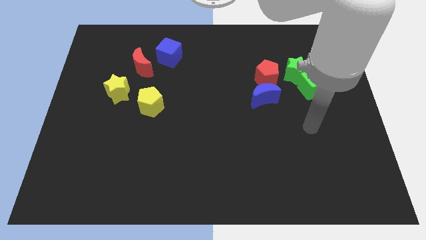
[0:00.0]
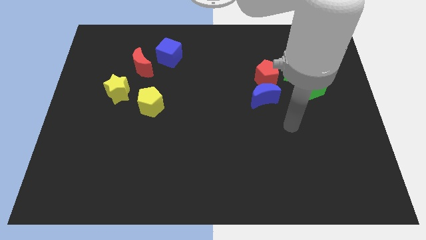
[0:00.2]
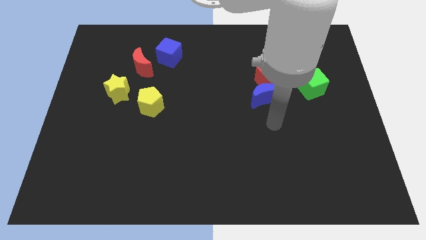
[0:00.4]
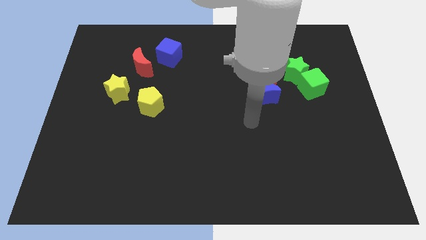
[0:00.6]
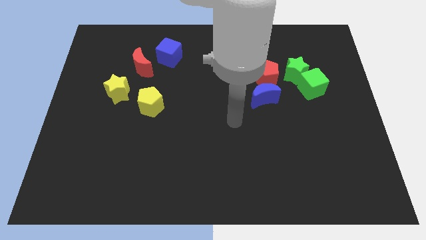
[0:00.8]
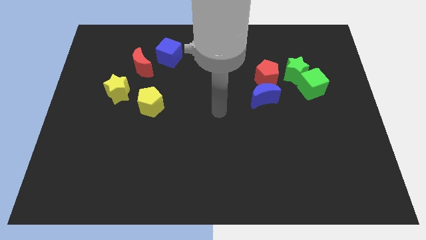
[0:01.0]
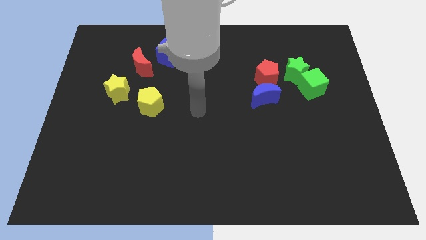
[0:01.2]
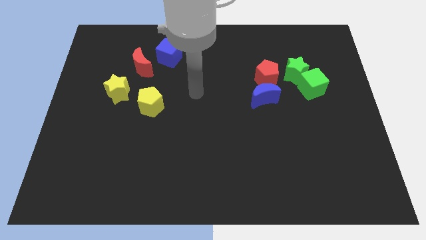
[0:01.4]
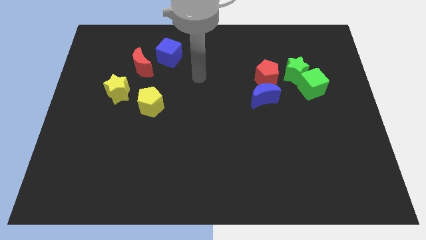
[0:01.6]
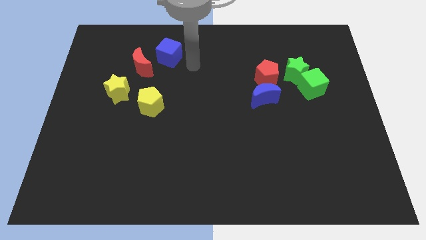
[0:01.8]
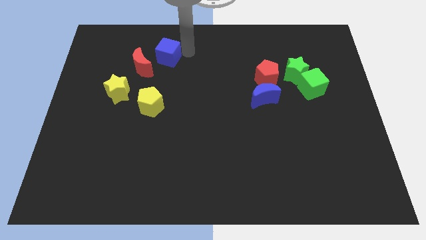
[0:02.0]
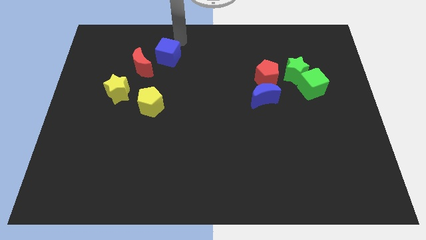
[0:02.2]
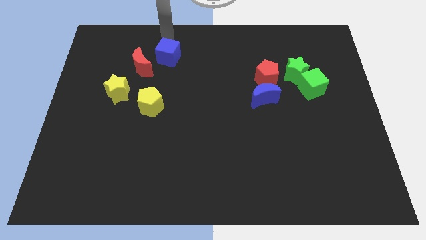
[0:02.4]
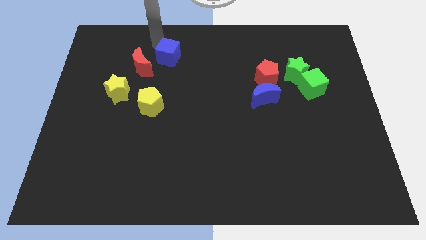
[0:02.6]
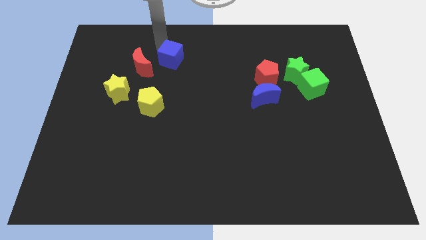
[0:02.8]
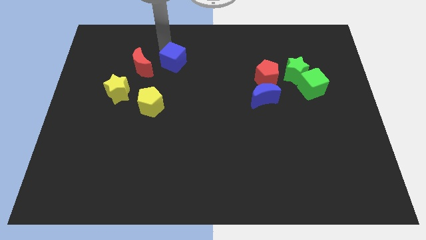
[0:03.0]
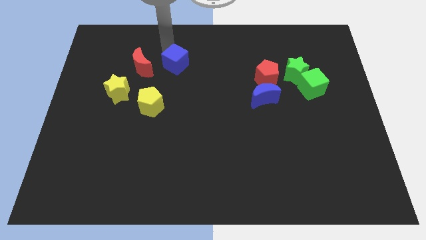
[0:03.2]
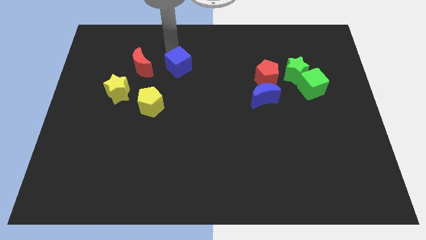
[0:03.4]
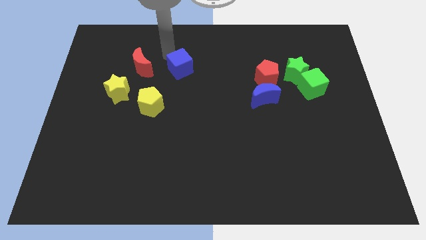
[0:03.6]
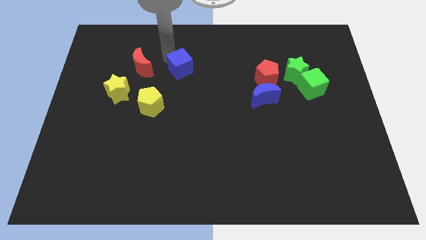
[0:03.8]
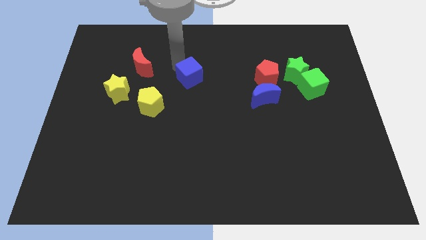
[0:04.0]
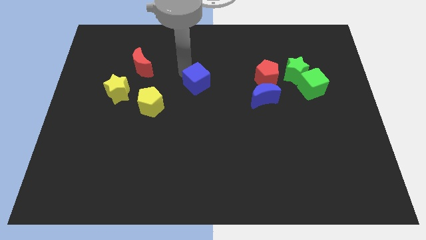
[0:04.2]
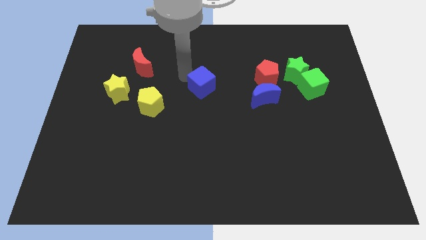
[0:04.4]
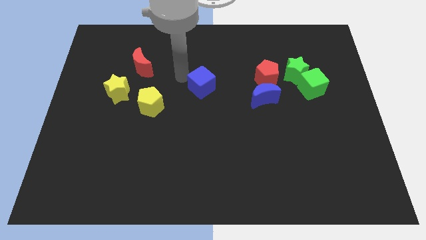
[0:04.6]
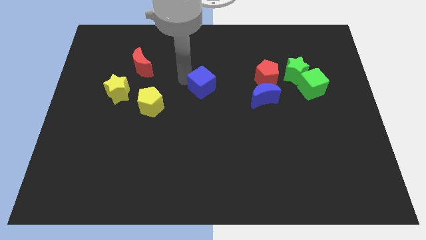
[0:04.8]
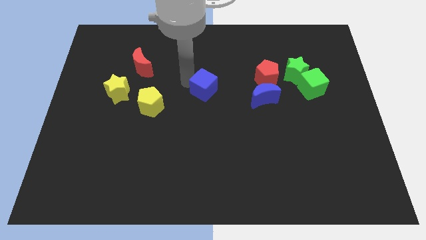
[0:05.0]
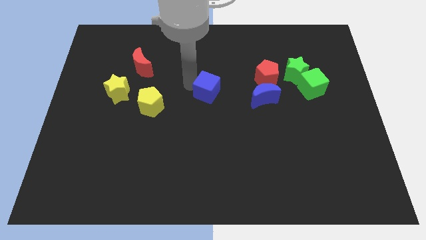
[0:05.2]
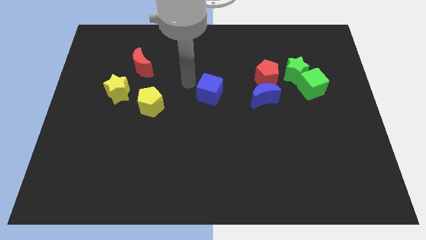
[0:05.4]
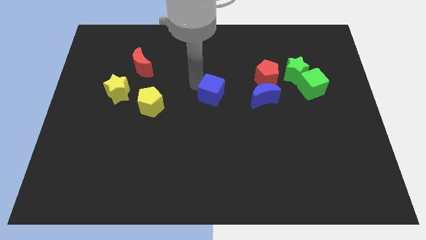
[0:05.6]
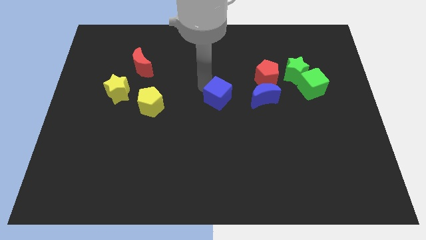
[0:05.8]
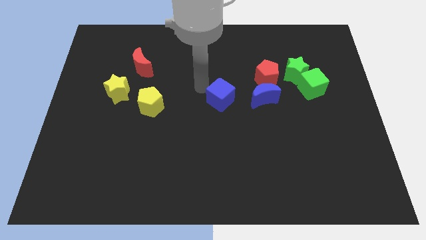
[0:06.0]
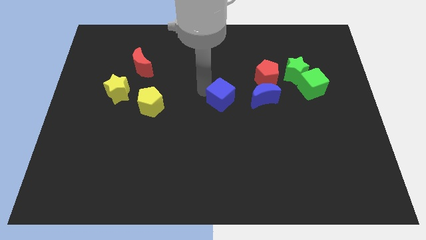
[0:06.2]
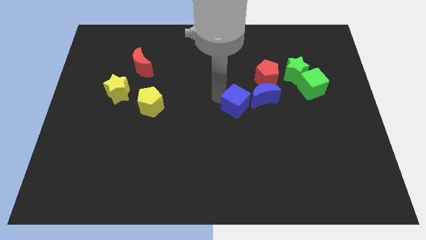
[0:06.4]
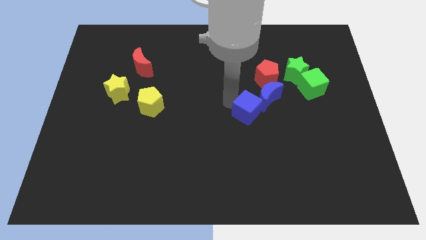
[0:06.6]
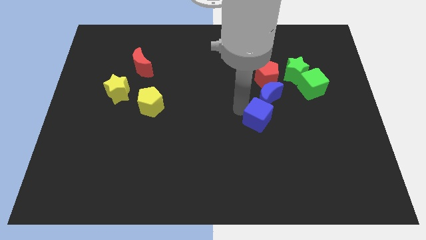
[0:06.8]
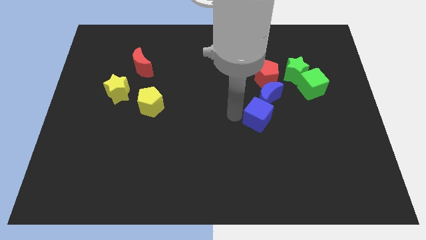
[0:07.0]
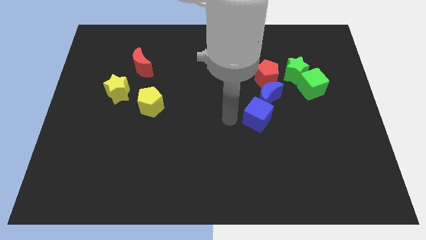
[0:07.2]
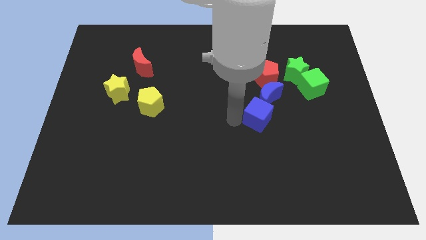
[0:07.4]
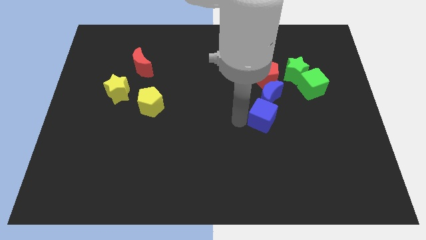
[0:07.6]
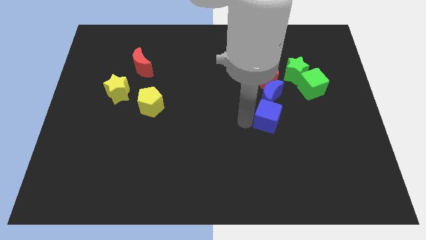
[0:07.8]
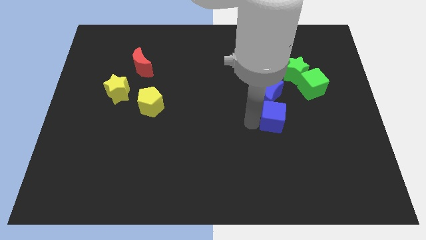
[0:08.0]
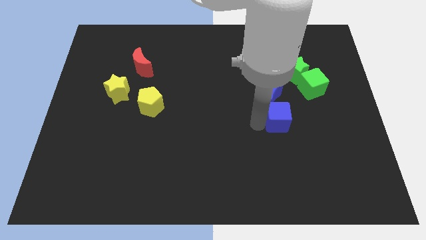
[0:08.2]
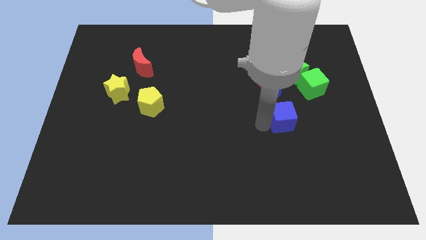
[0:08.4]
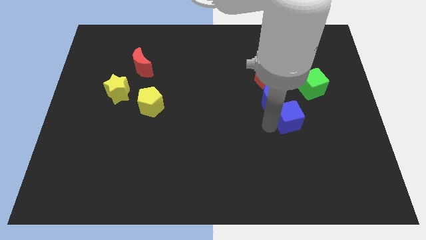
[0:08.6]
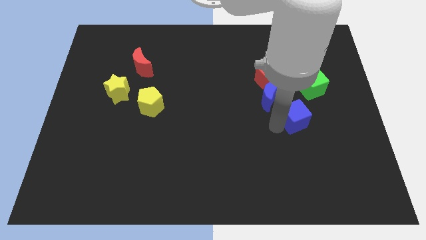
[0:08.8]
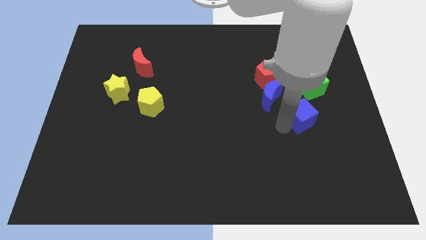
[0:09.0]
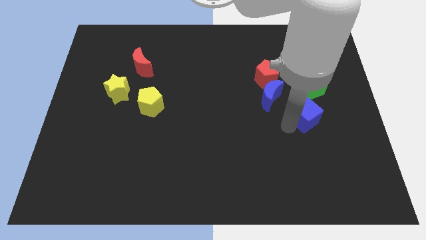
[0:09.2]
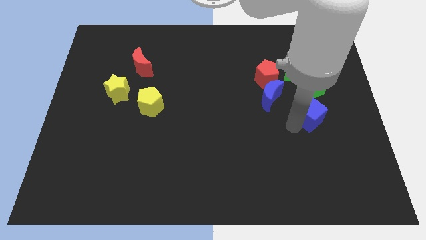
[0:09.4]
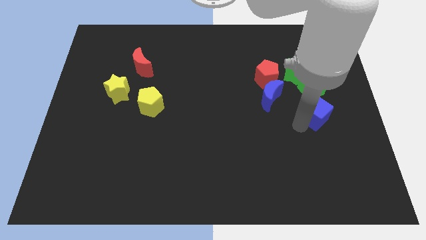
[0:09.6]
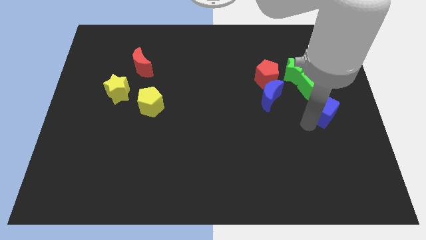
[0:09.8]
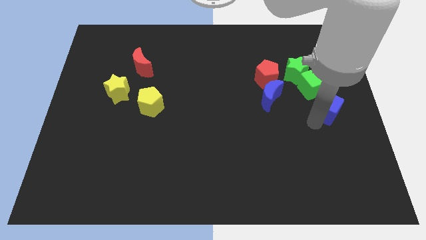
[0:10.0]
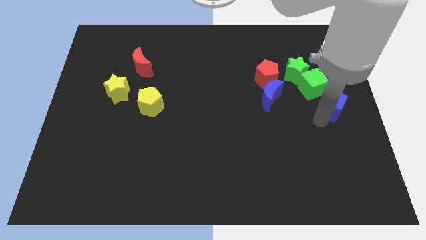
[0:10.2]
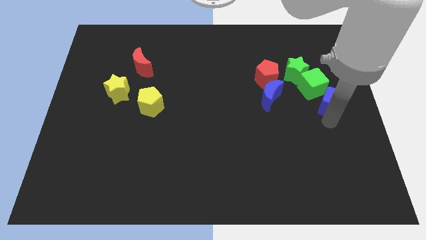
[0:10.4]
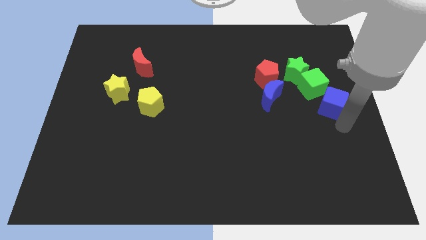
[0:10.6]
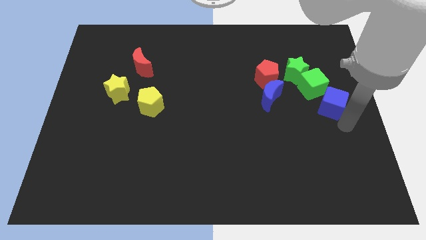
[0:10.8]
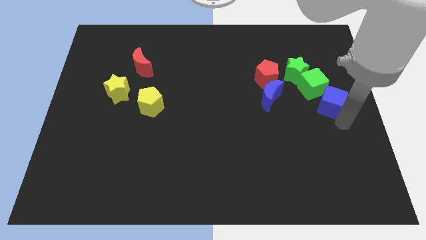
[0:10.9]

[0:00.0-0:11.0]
put the blue cube diagonally down and to the right of the green star
